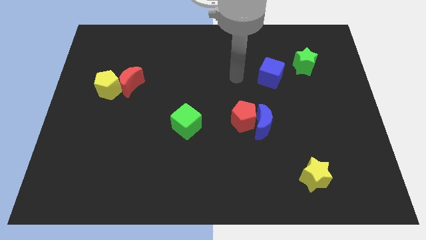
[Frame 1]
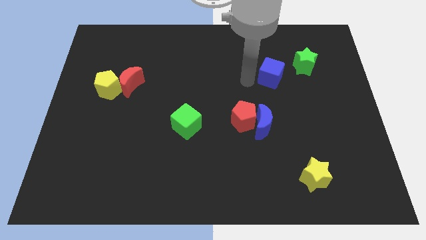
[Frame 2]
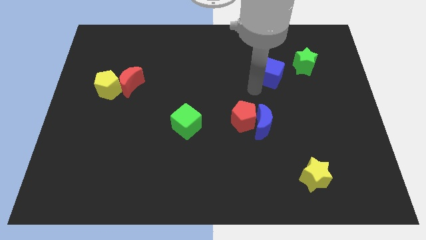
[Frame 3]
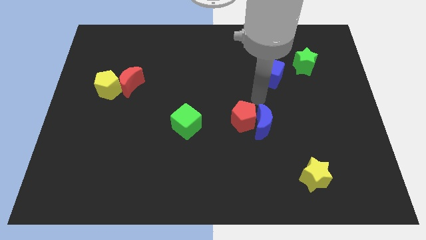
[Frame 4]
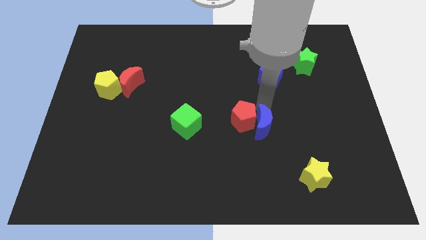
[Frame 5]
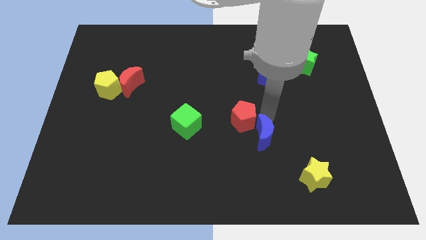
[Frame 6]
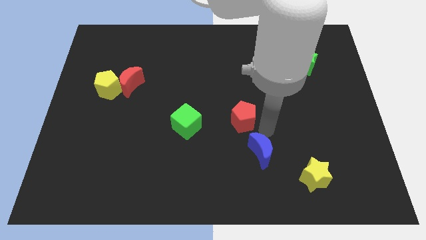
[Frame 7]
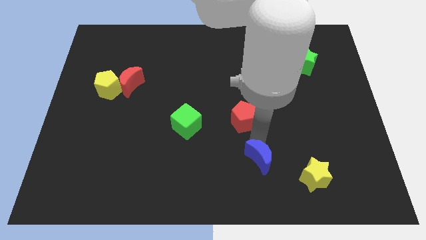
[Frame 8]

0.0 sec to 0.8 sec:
separate the red pentagon from the blue moon

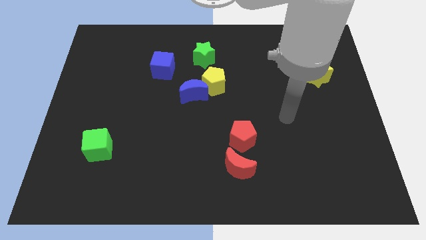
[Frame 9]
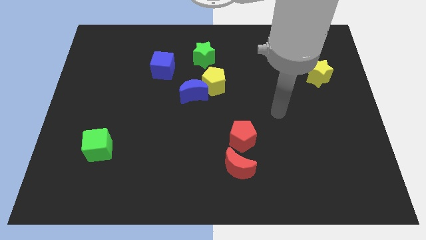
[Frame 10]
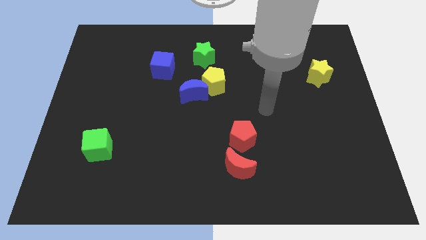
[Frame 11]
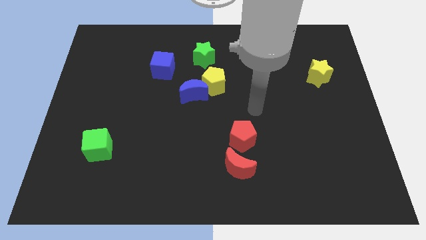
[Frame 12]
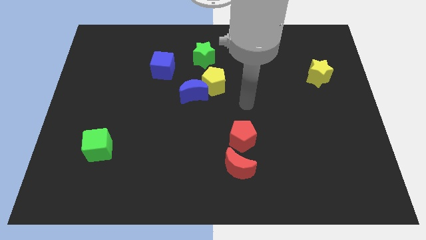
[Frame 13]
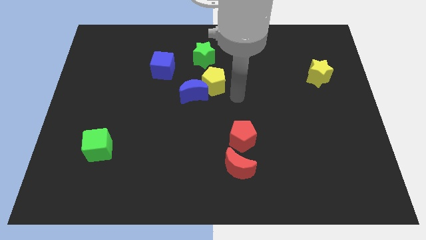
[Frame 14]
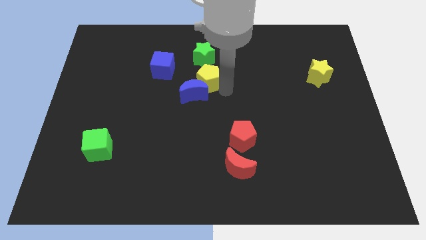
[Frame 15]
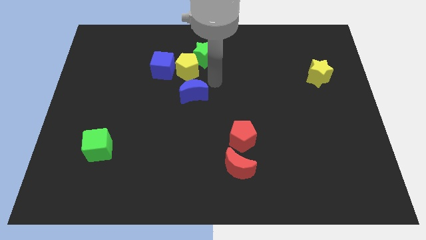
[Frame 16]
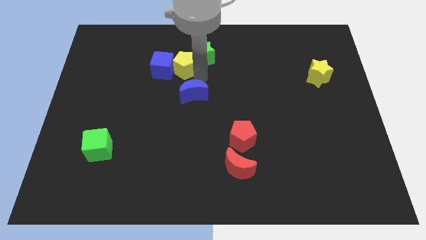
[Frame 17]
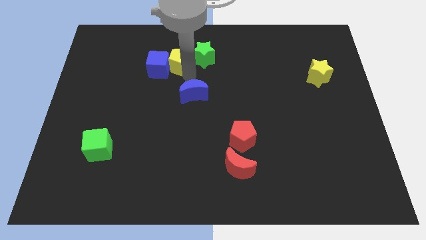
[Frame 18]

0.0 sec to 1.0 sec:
separate the blue moon from the yellow pentagon

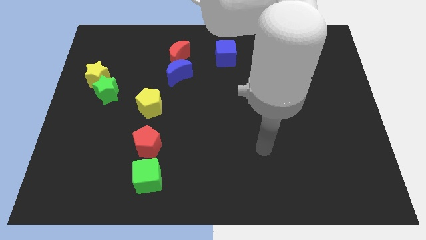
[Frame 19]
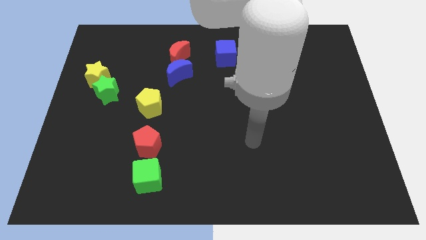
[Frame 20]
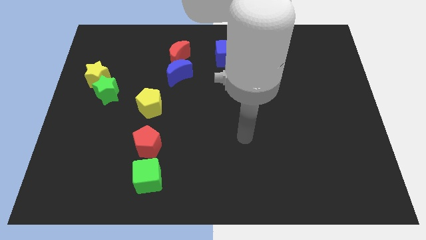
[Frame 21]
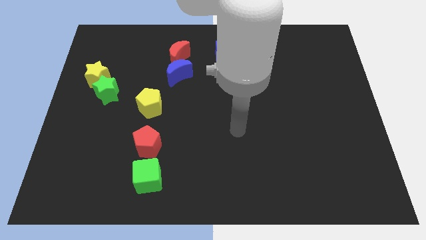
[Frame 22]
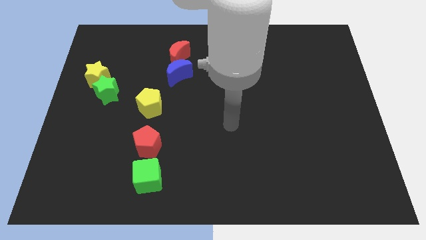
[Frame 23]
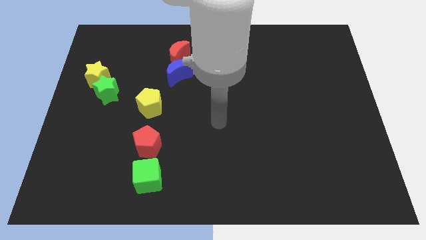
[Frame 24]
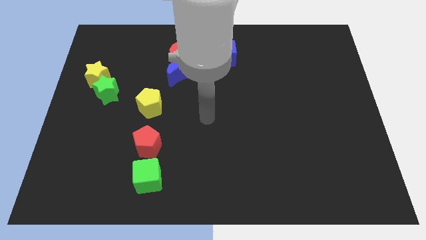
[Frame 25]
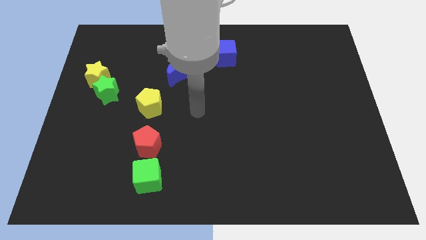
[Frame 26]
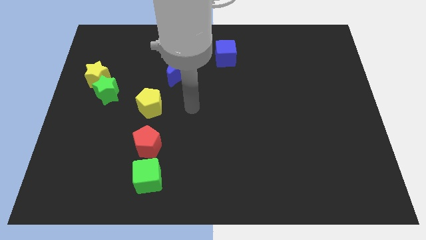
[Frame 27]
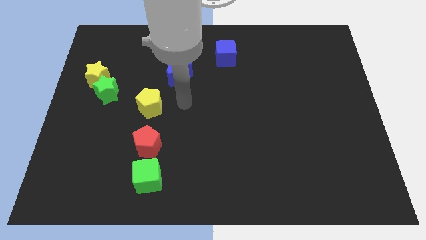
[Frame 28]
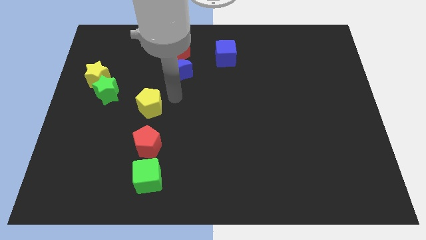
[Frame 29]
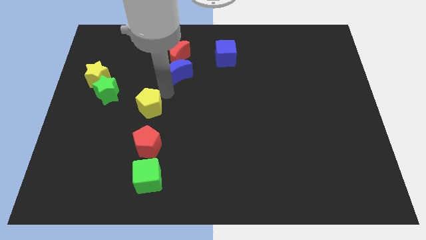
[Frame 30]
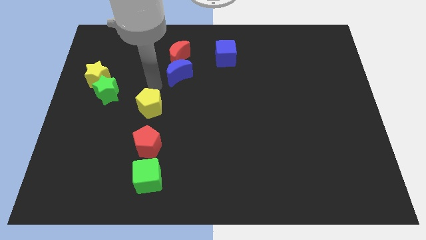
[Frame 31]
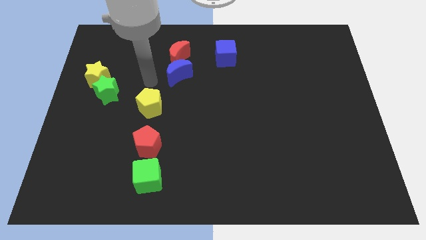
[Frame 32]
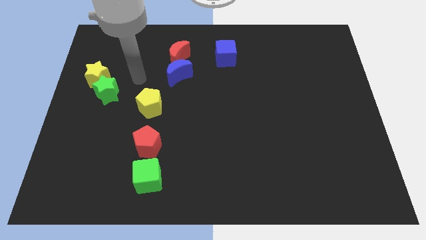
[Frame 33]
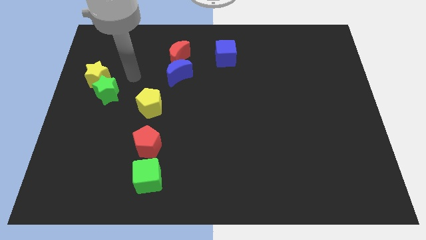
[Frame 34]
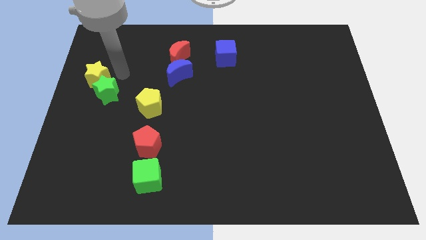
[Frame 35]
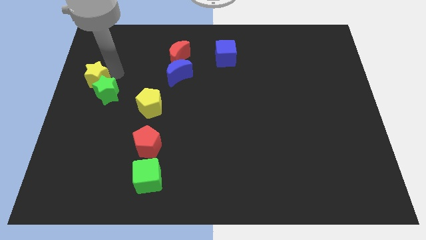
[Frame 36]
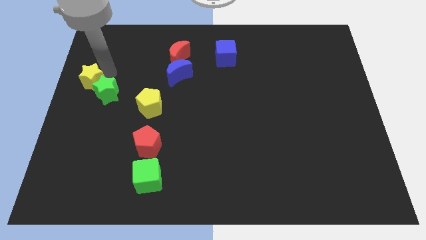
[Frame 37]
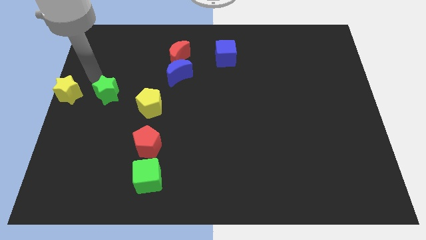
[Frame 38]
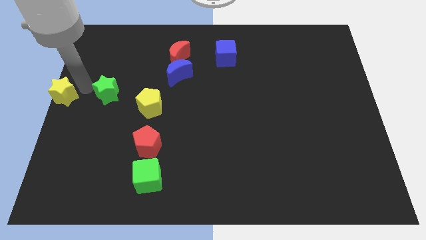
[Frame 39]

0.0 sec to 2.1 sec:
separate the green star from the yellow star

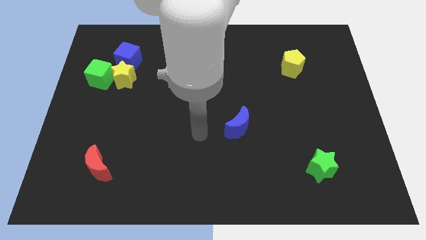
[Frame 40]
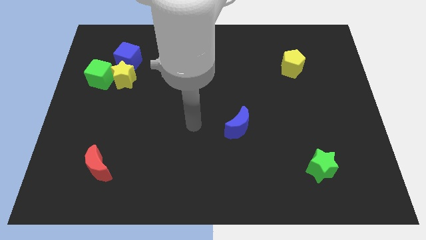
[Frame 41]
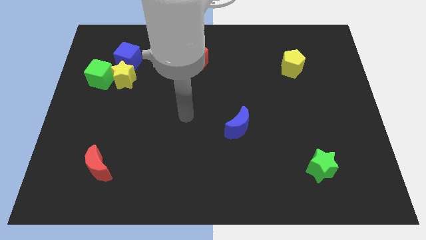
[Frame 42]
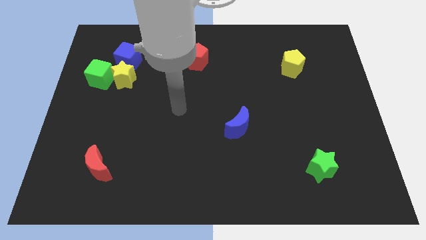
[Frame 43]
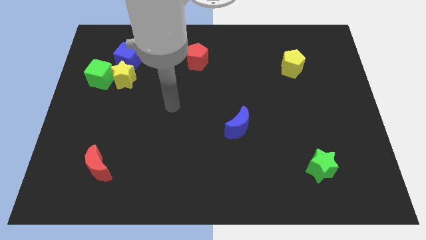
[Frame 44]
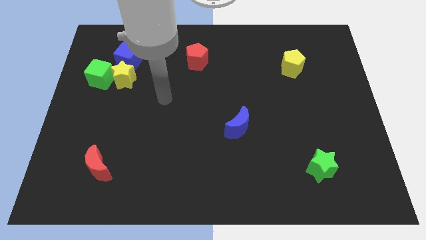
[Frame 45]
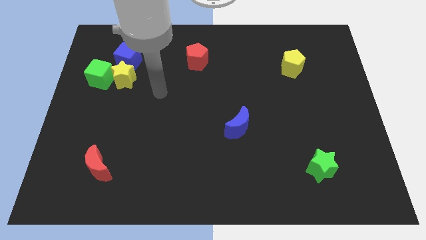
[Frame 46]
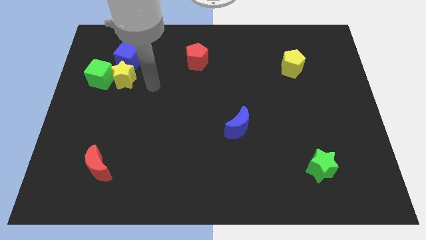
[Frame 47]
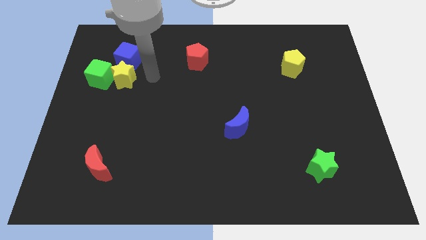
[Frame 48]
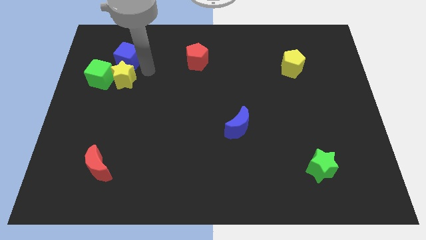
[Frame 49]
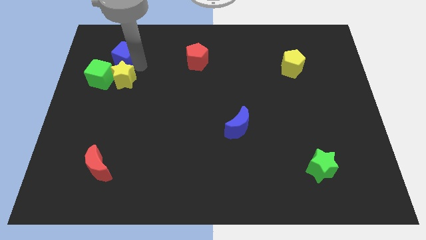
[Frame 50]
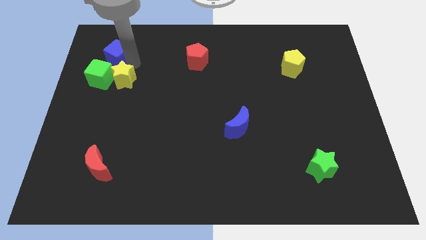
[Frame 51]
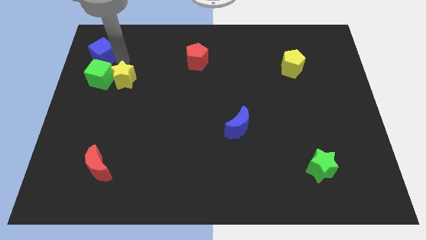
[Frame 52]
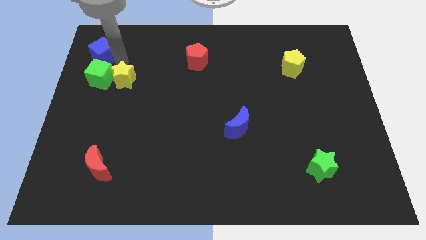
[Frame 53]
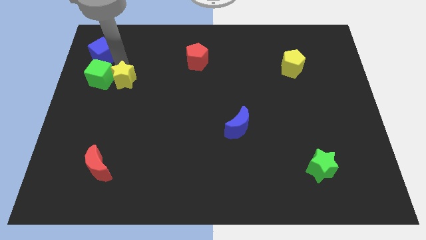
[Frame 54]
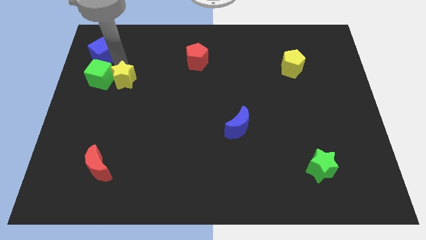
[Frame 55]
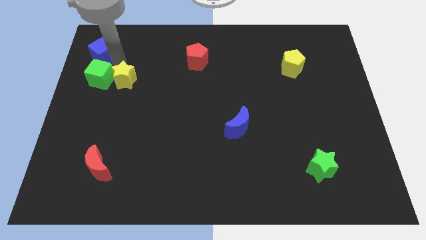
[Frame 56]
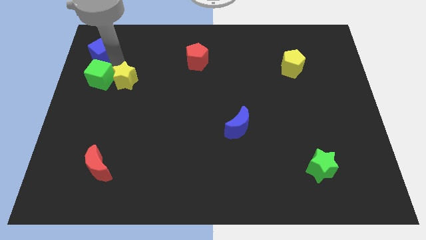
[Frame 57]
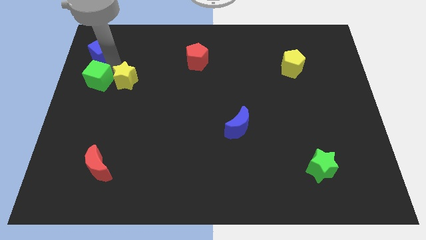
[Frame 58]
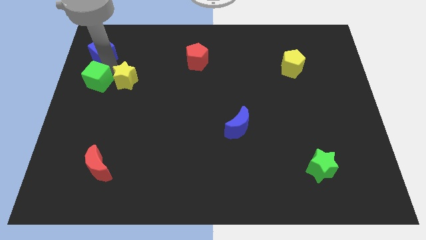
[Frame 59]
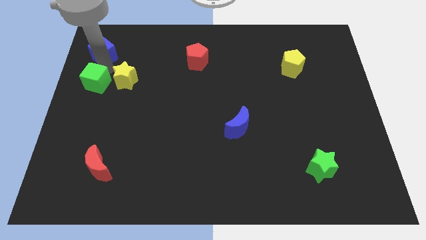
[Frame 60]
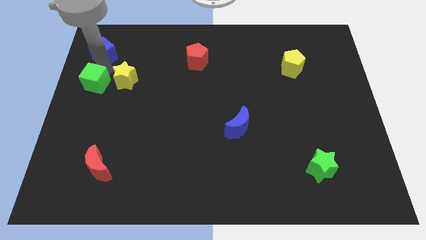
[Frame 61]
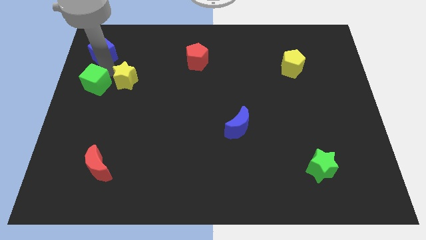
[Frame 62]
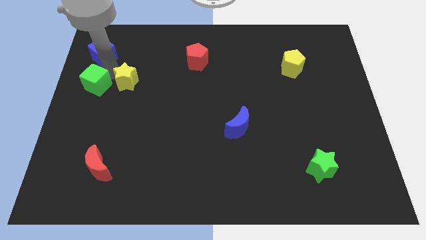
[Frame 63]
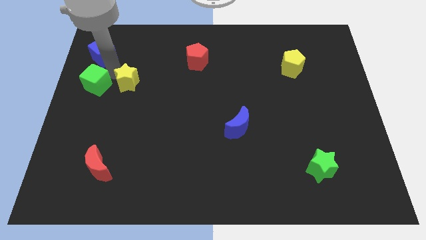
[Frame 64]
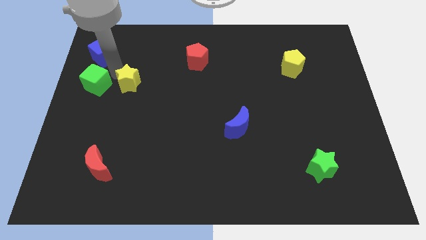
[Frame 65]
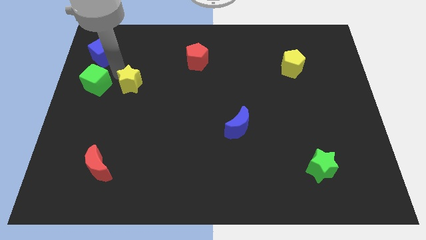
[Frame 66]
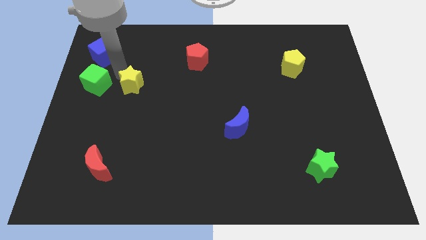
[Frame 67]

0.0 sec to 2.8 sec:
move the yellow star away from the green cube and blue cube

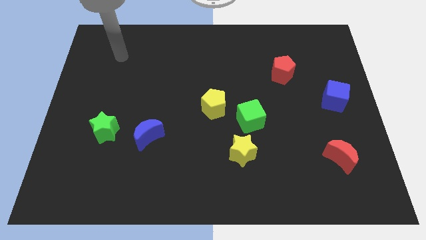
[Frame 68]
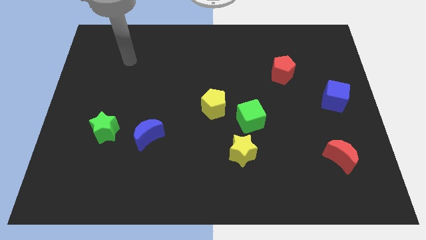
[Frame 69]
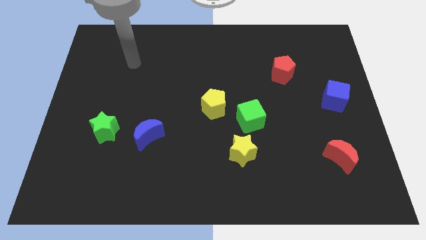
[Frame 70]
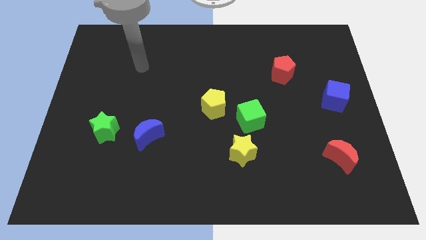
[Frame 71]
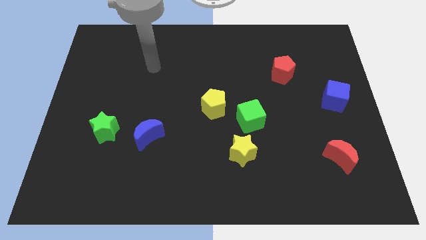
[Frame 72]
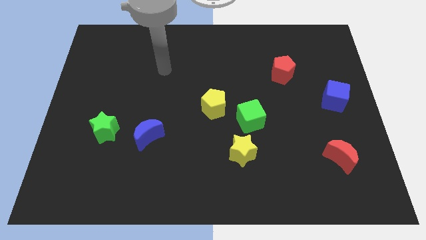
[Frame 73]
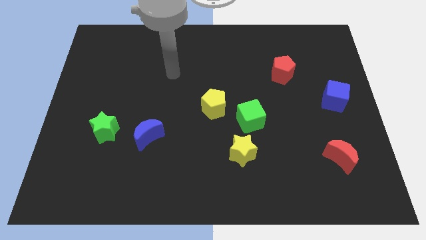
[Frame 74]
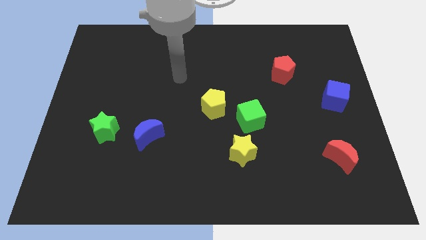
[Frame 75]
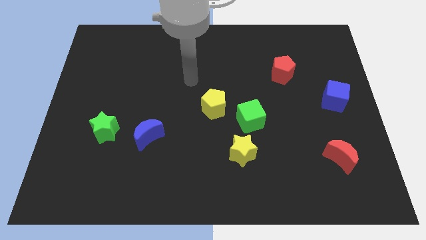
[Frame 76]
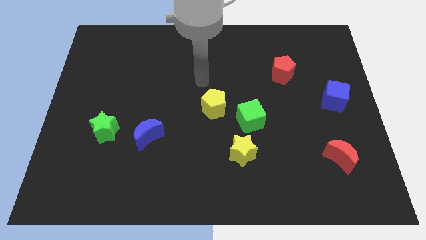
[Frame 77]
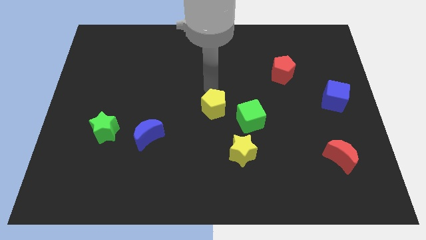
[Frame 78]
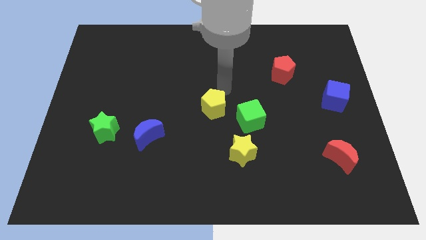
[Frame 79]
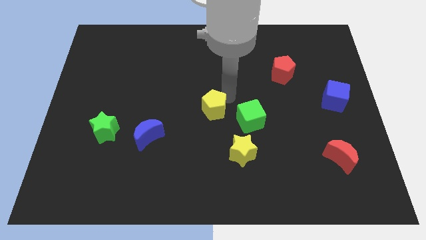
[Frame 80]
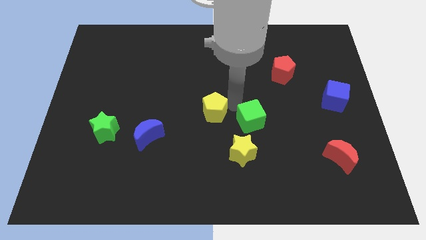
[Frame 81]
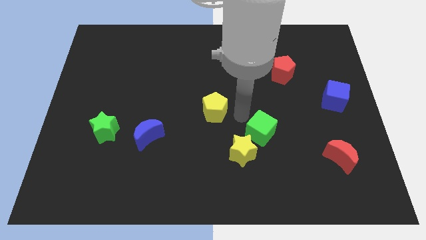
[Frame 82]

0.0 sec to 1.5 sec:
move the yellow pentagon away from the green cube

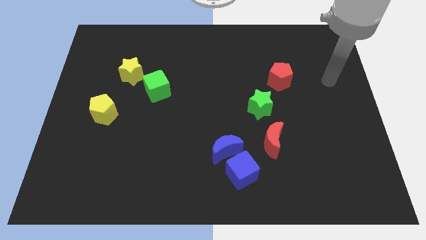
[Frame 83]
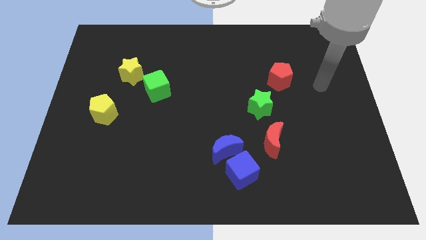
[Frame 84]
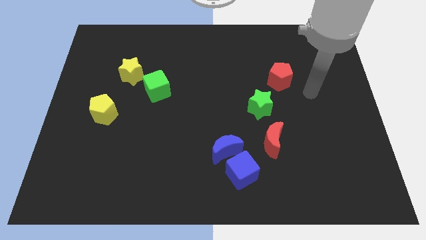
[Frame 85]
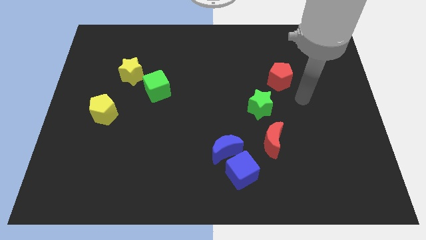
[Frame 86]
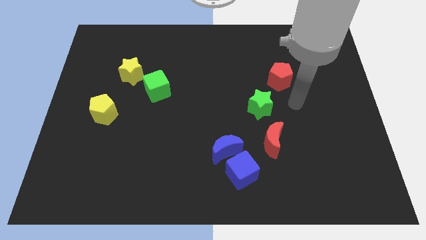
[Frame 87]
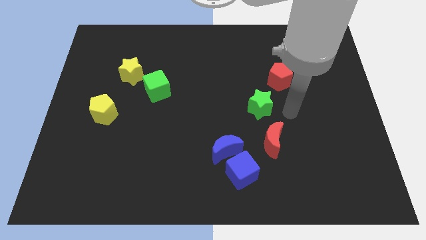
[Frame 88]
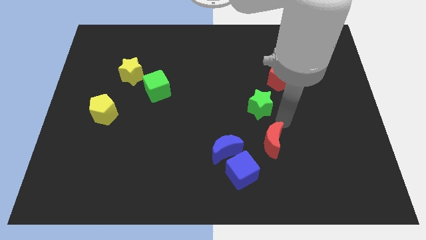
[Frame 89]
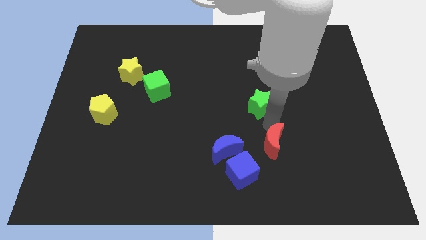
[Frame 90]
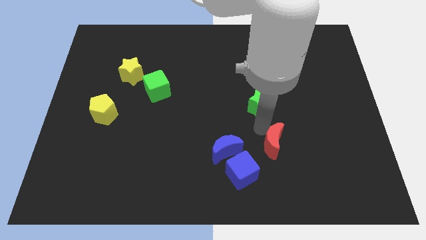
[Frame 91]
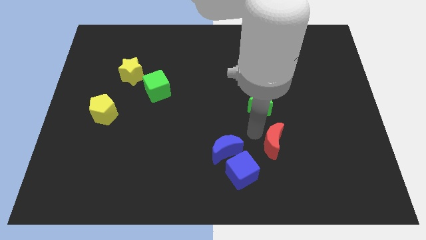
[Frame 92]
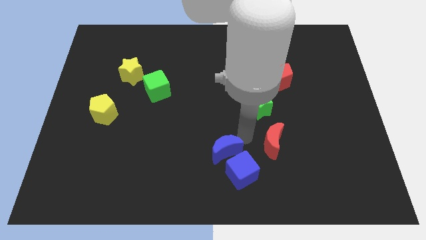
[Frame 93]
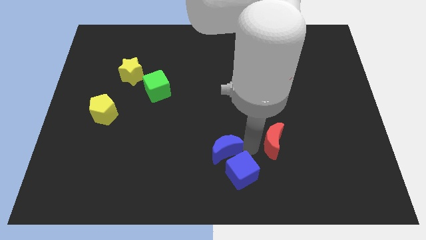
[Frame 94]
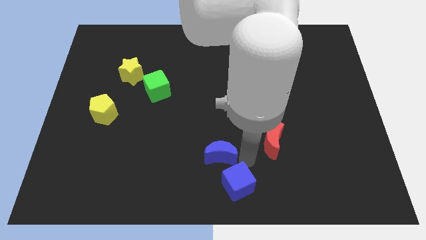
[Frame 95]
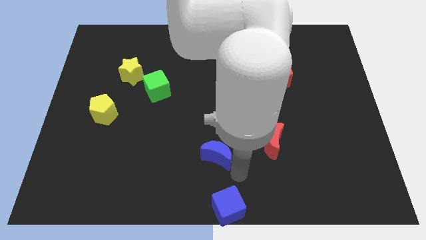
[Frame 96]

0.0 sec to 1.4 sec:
pull the blue moon apart from the blue cube
